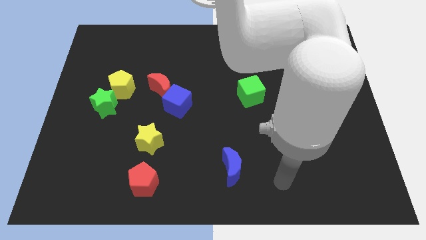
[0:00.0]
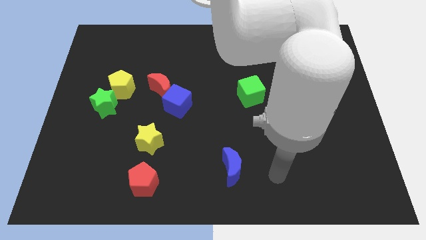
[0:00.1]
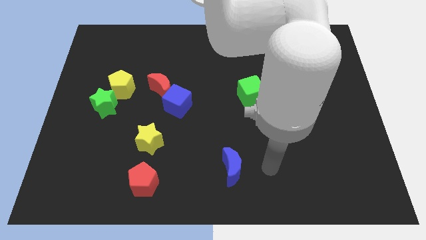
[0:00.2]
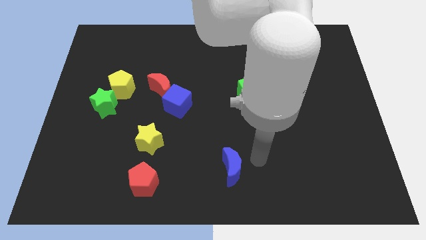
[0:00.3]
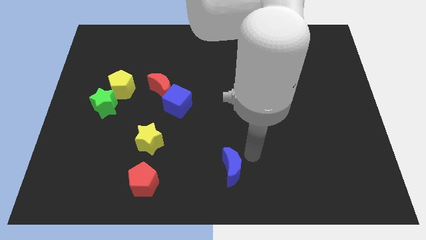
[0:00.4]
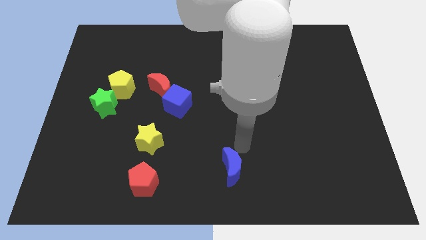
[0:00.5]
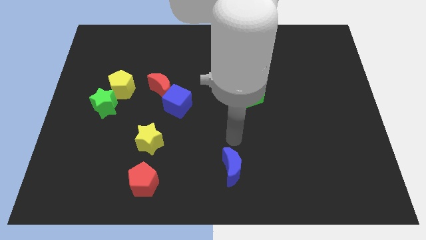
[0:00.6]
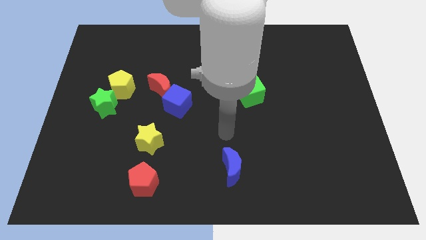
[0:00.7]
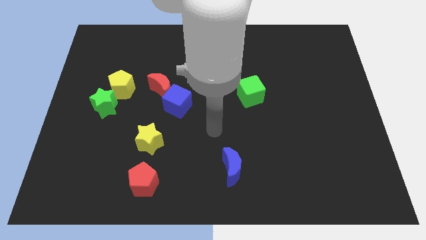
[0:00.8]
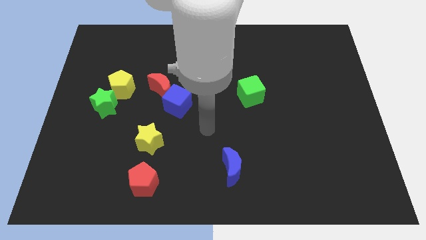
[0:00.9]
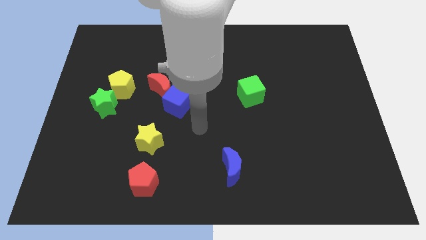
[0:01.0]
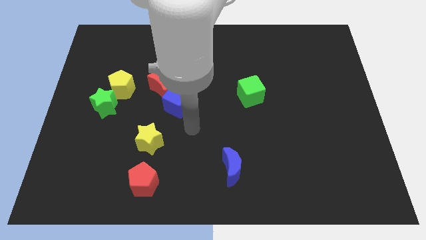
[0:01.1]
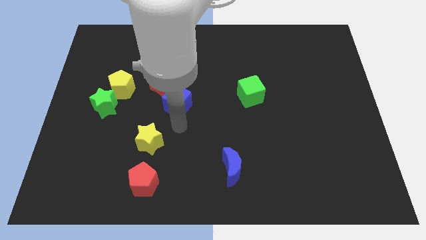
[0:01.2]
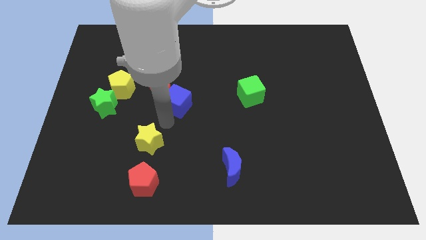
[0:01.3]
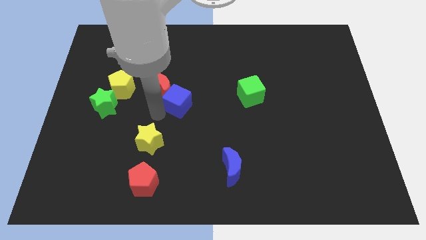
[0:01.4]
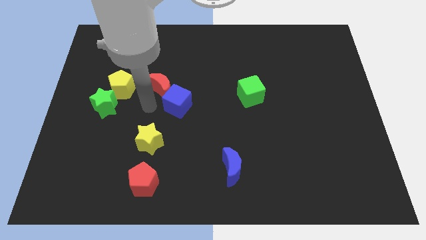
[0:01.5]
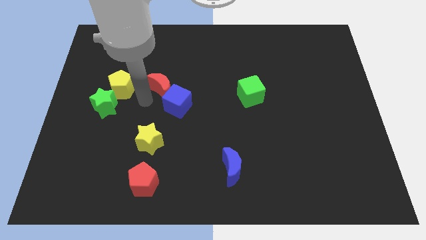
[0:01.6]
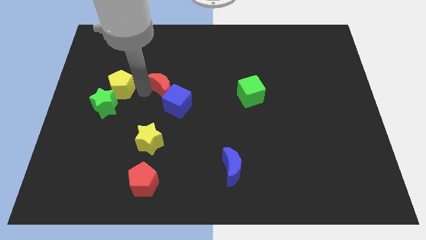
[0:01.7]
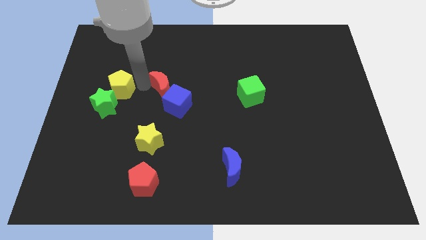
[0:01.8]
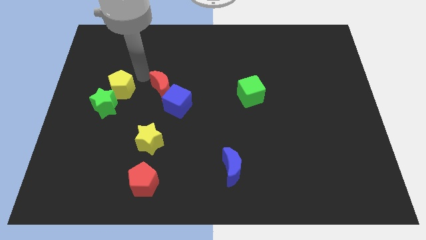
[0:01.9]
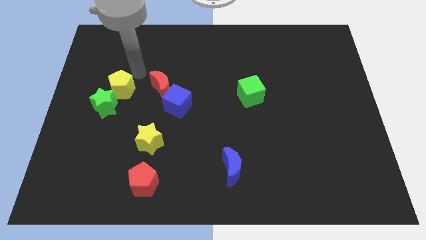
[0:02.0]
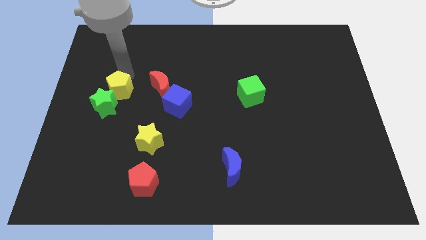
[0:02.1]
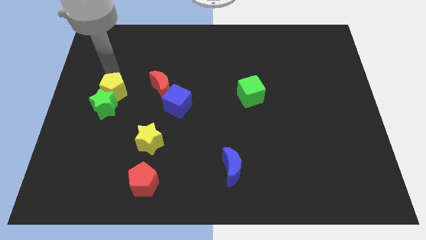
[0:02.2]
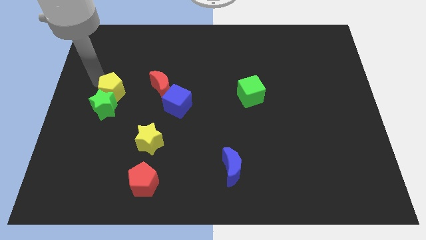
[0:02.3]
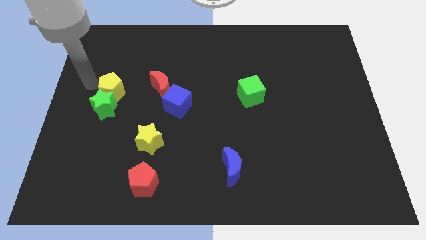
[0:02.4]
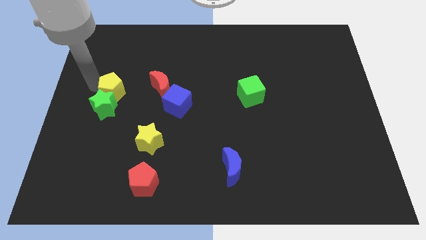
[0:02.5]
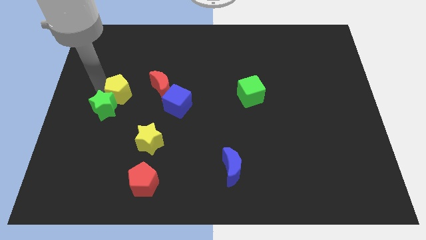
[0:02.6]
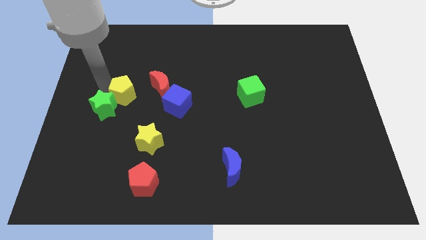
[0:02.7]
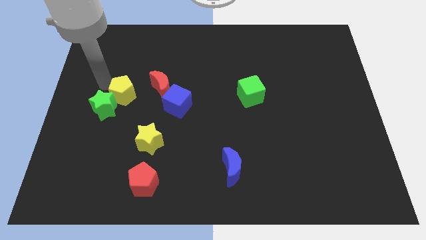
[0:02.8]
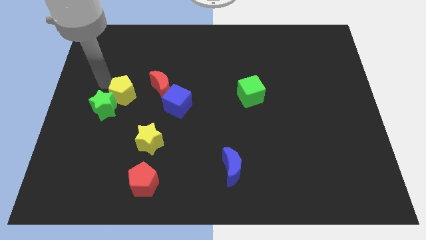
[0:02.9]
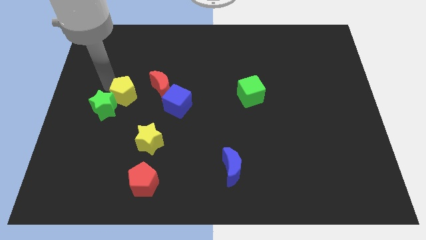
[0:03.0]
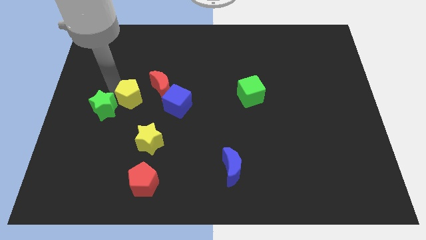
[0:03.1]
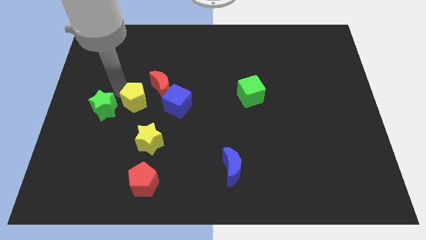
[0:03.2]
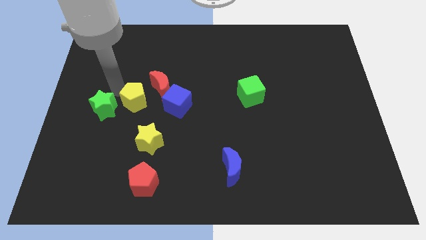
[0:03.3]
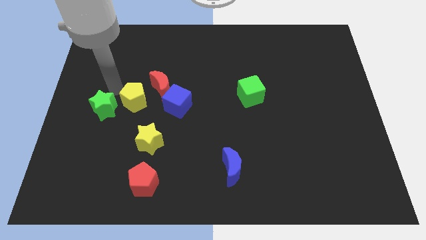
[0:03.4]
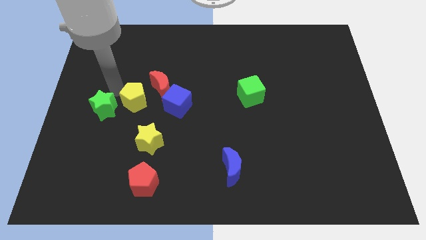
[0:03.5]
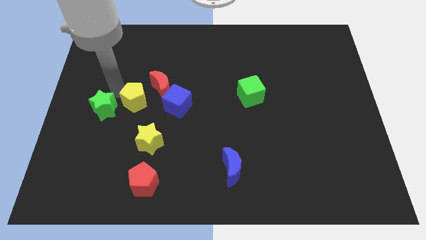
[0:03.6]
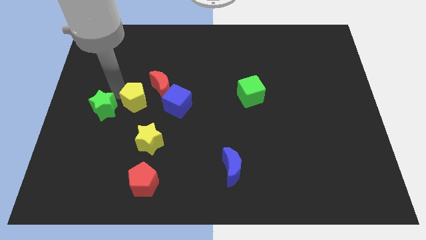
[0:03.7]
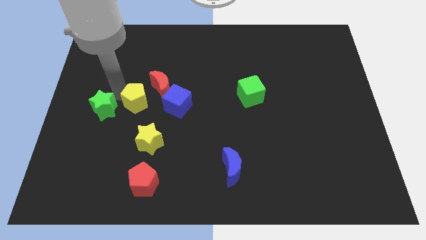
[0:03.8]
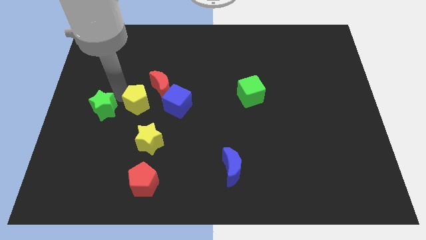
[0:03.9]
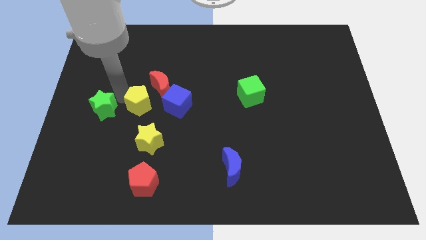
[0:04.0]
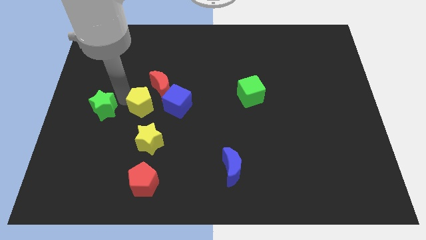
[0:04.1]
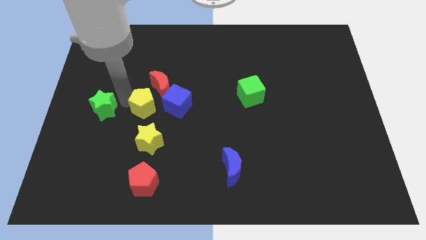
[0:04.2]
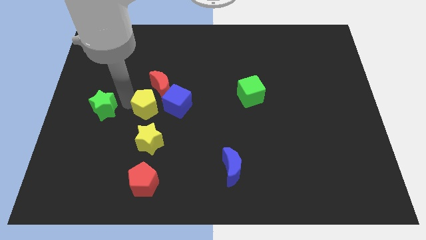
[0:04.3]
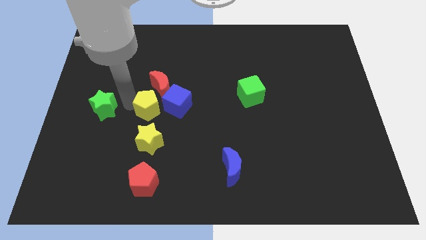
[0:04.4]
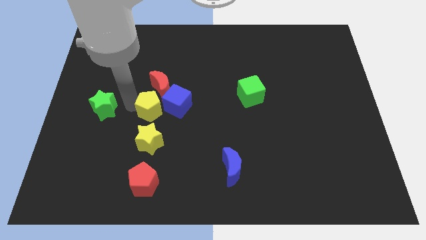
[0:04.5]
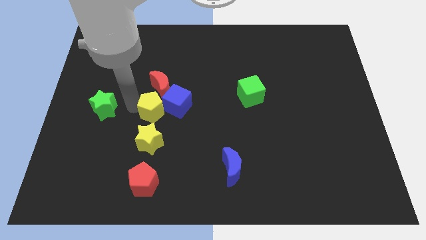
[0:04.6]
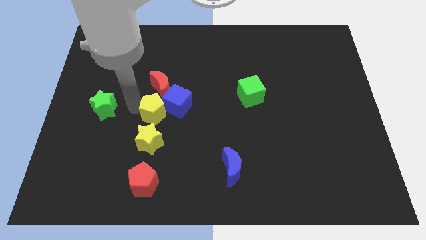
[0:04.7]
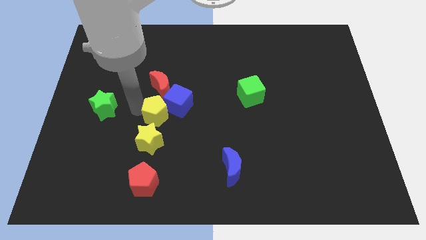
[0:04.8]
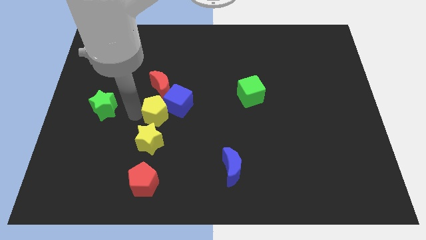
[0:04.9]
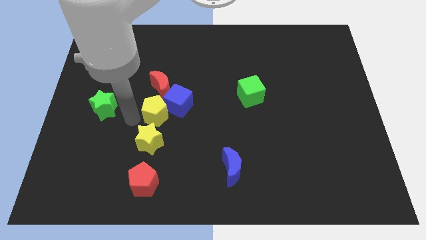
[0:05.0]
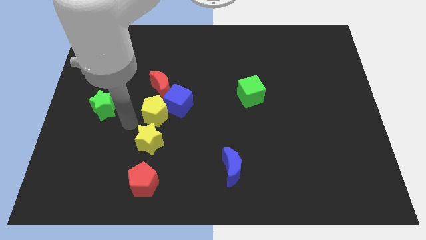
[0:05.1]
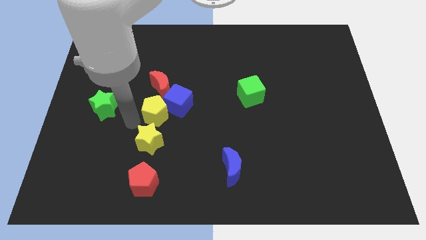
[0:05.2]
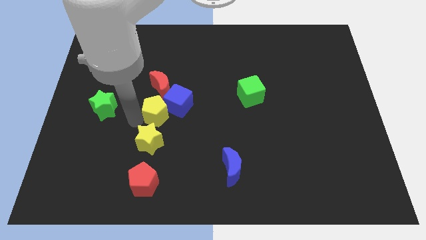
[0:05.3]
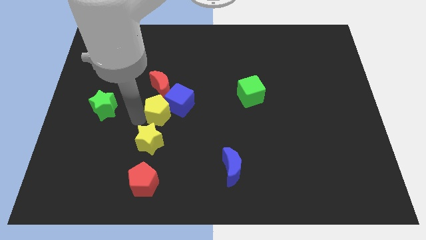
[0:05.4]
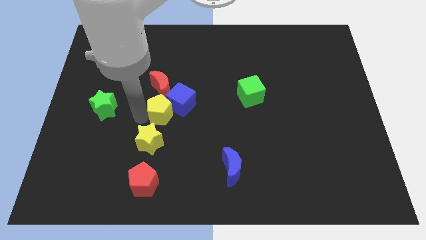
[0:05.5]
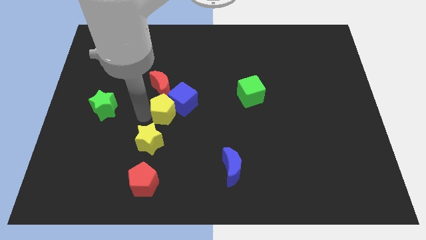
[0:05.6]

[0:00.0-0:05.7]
put the yellow pentagon diagonally down and to the right of the red moon

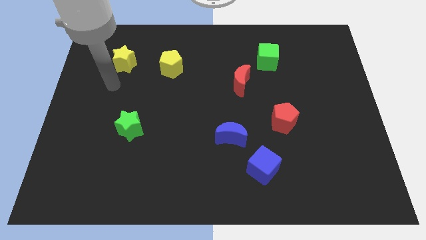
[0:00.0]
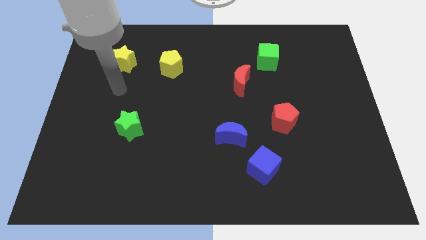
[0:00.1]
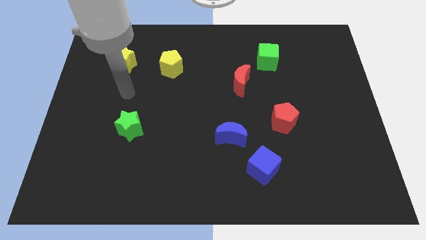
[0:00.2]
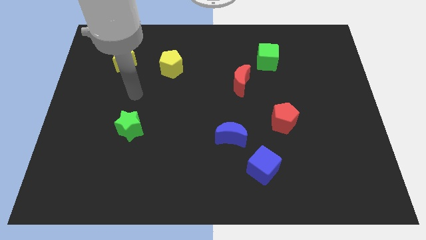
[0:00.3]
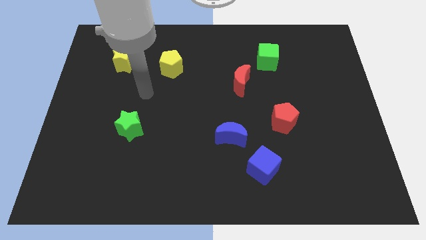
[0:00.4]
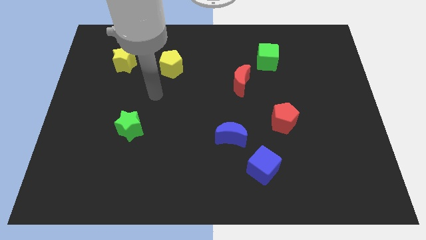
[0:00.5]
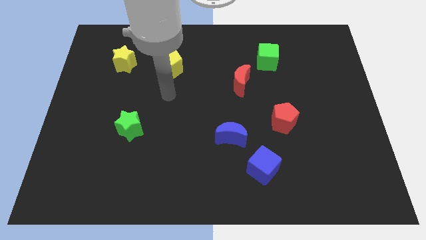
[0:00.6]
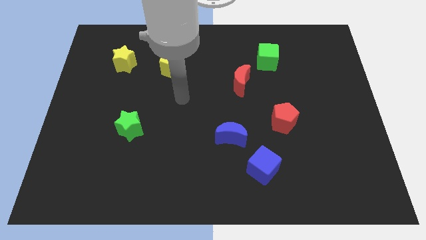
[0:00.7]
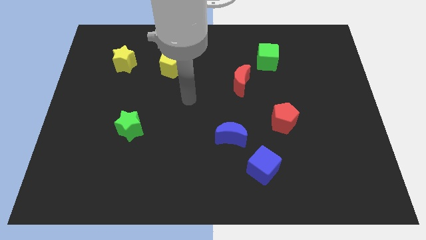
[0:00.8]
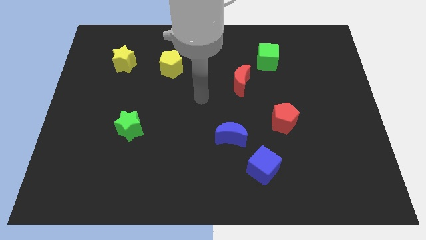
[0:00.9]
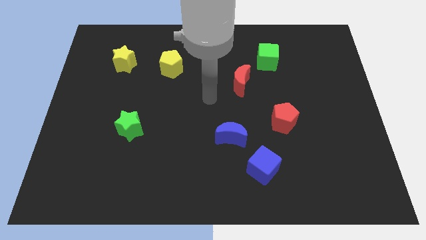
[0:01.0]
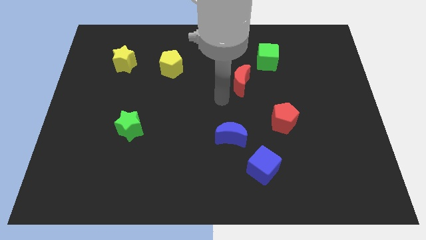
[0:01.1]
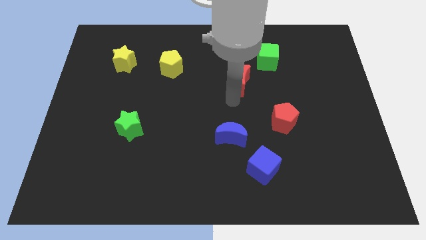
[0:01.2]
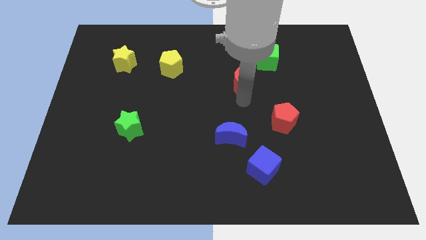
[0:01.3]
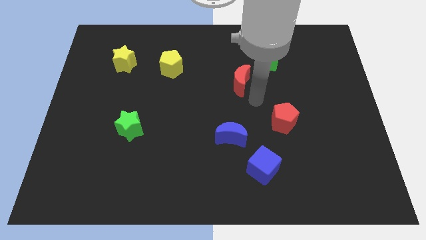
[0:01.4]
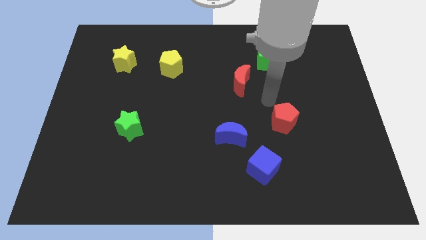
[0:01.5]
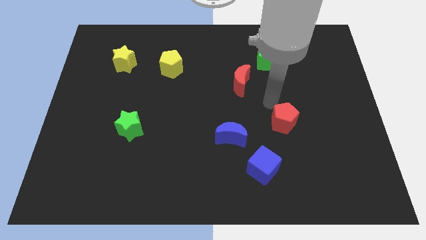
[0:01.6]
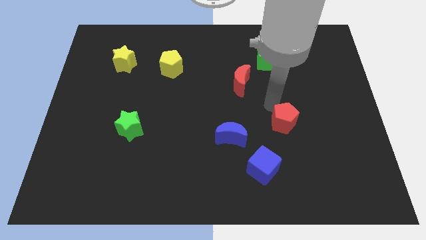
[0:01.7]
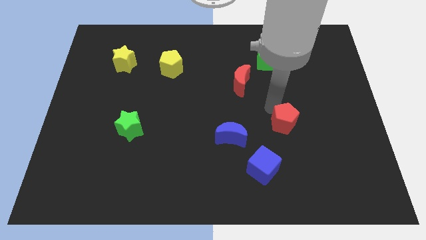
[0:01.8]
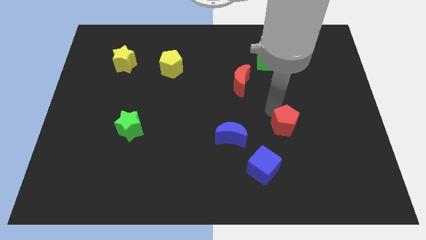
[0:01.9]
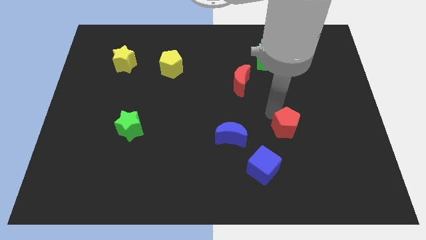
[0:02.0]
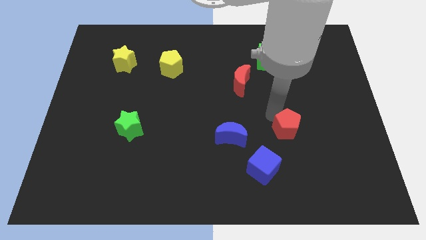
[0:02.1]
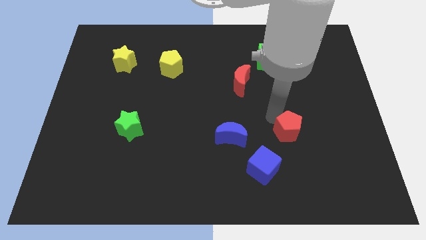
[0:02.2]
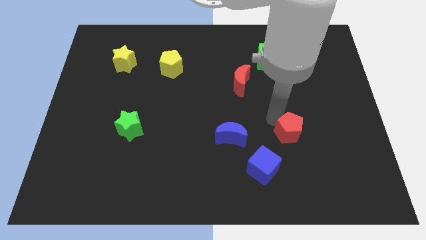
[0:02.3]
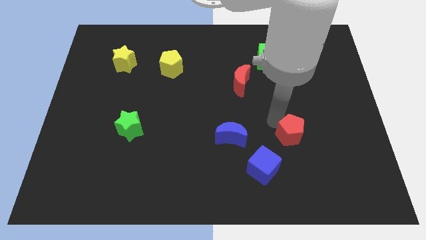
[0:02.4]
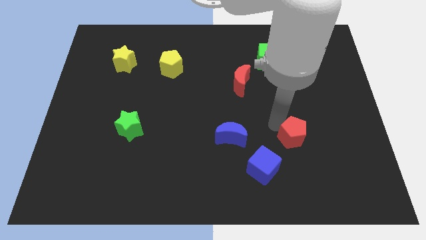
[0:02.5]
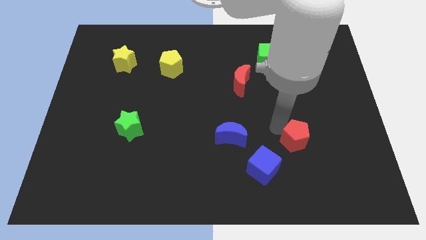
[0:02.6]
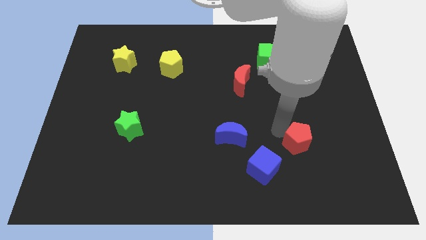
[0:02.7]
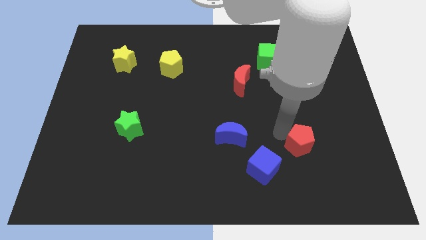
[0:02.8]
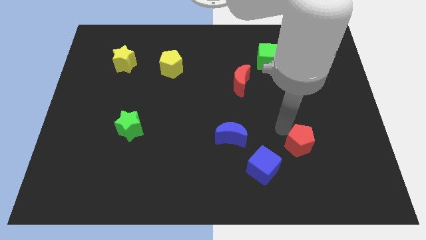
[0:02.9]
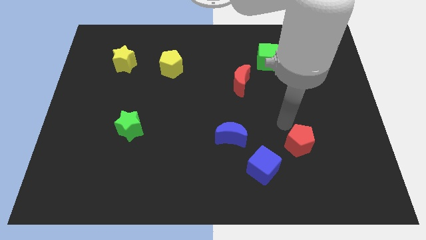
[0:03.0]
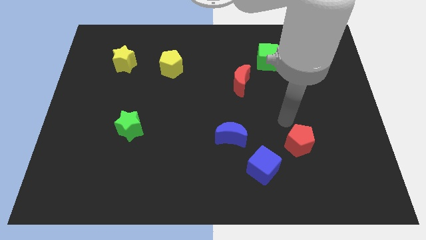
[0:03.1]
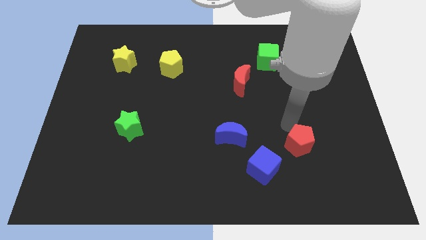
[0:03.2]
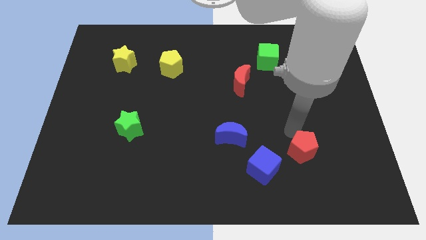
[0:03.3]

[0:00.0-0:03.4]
move the red pentagon just right of the blue cube
